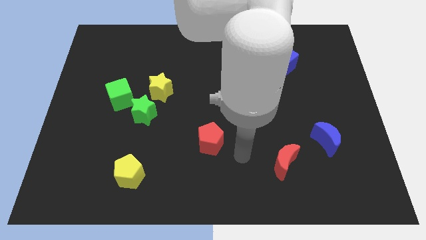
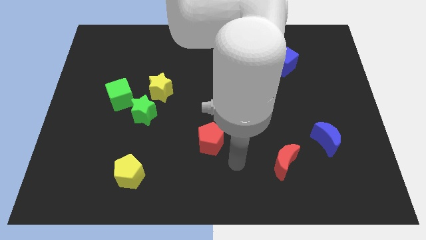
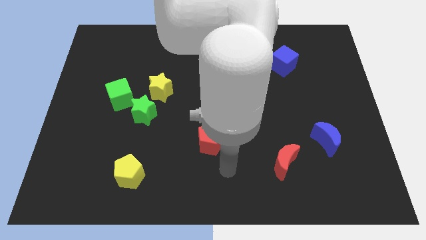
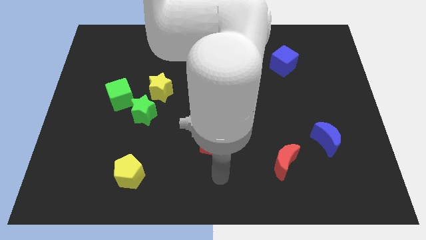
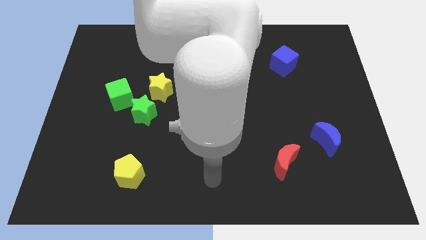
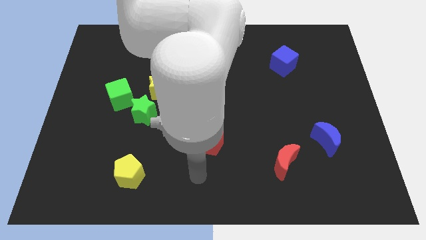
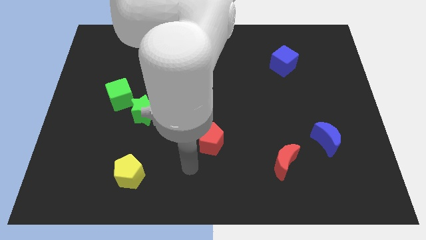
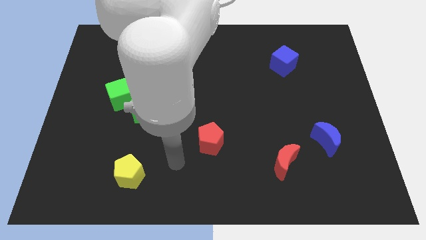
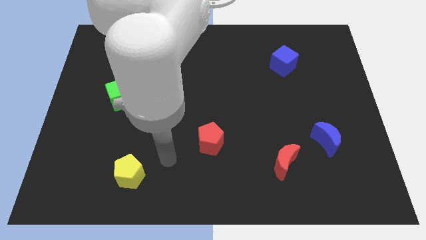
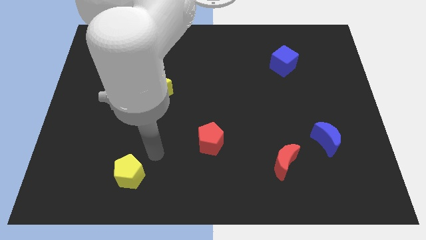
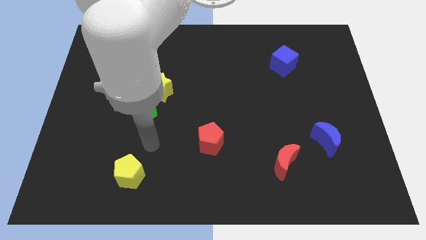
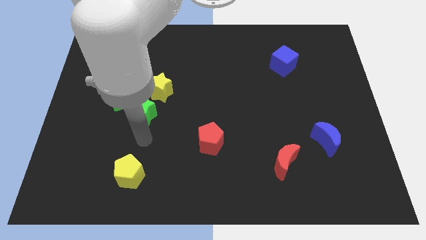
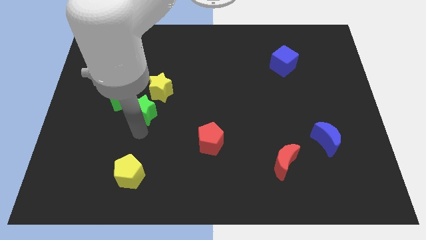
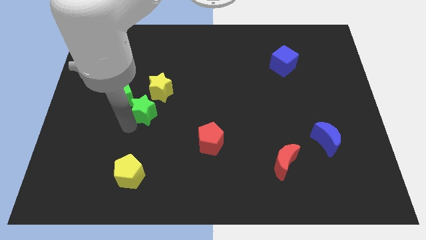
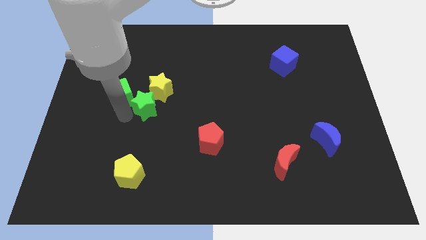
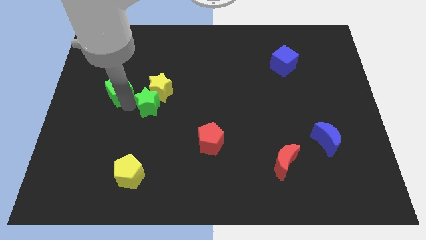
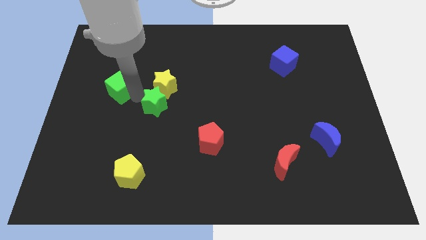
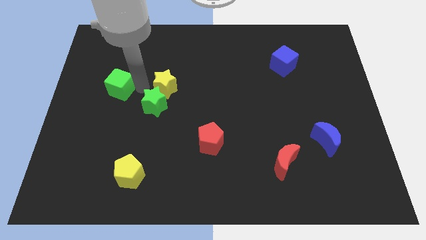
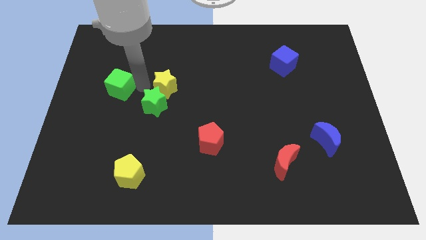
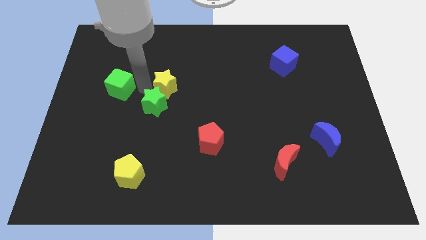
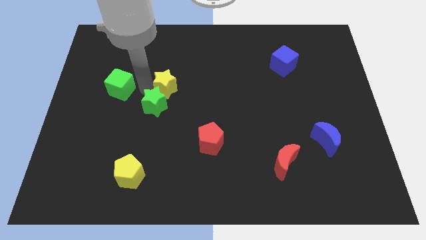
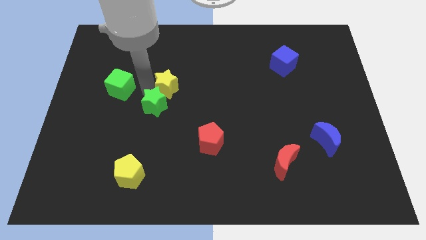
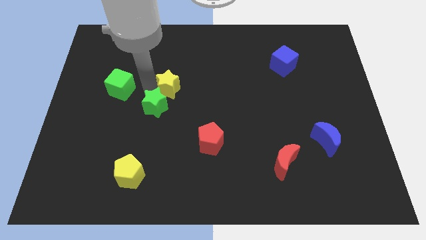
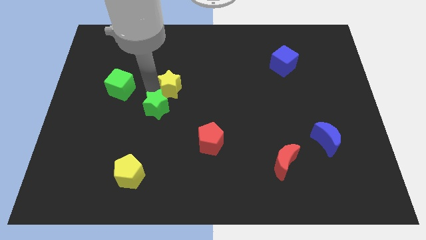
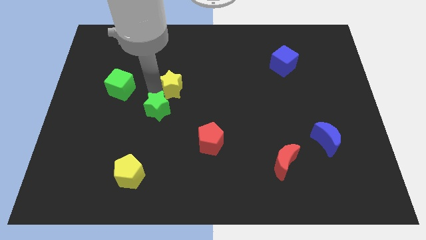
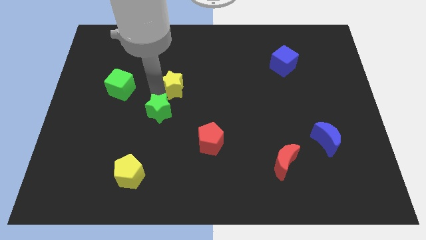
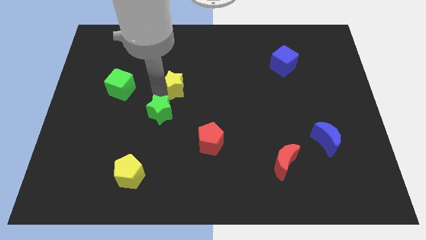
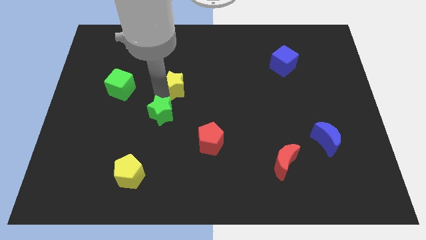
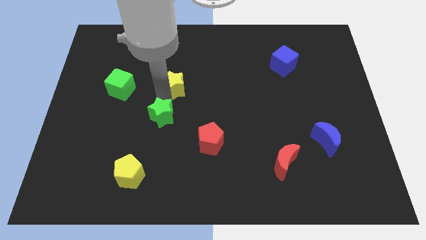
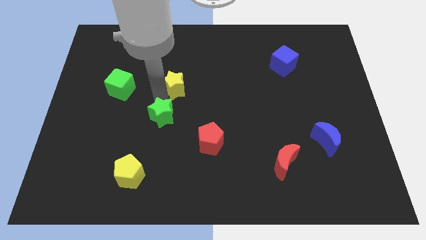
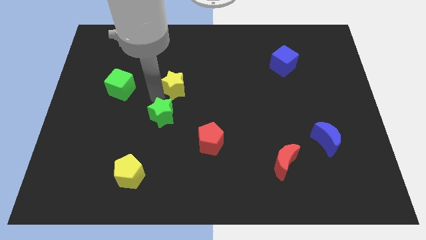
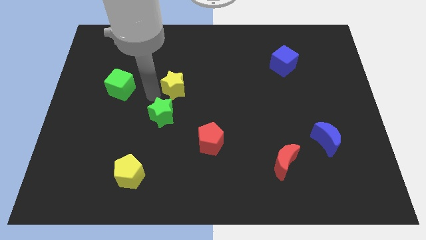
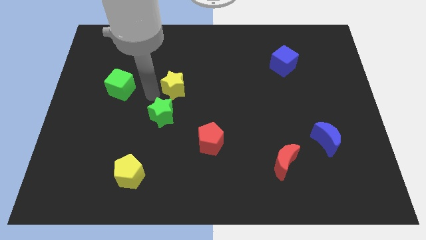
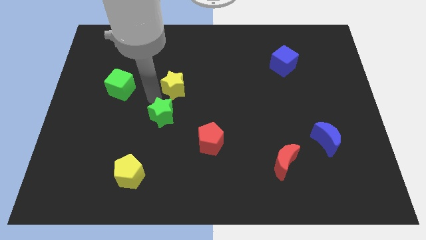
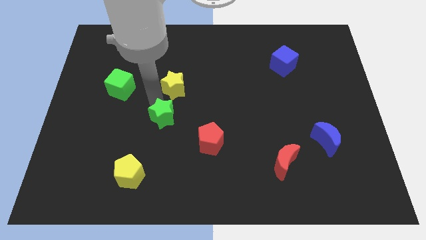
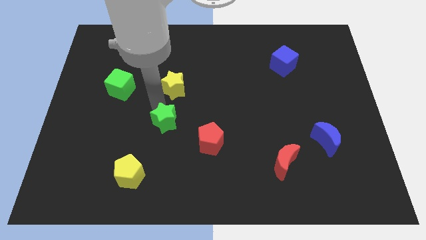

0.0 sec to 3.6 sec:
pull the green star apart from the yellow star and green cube

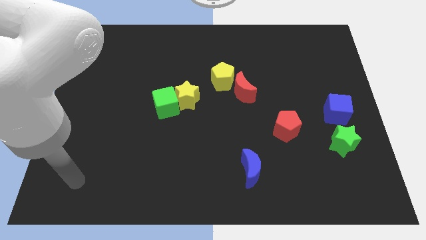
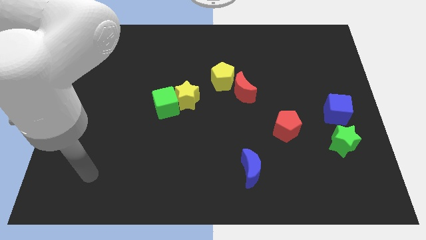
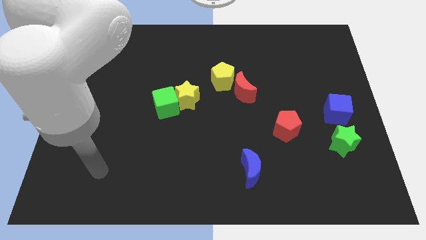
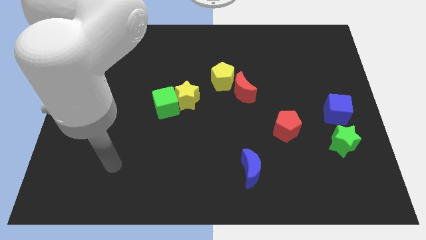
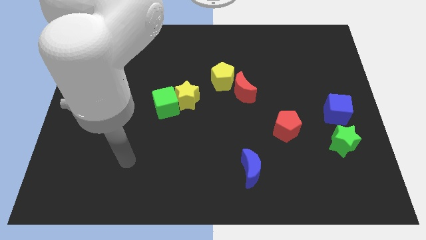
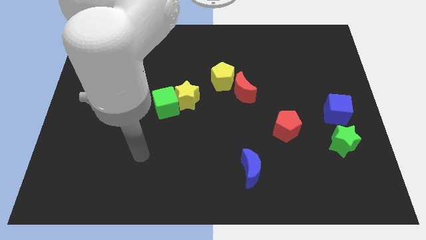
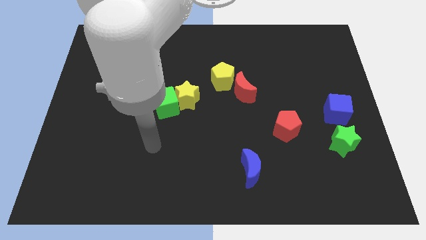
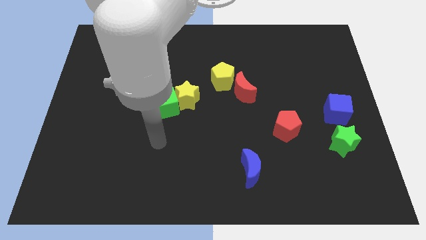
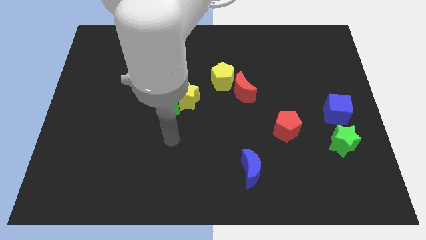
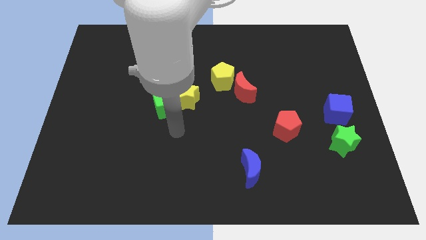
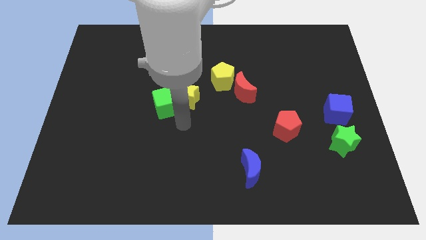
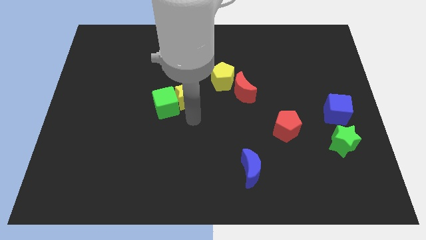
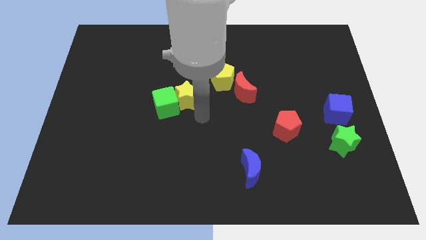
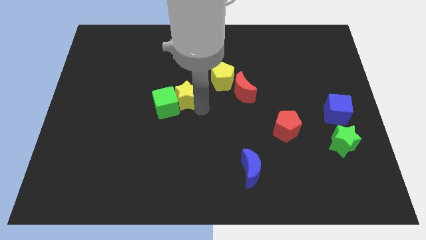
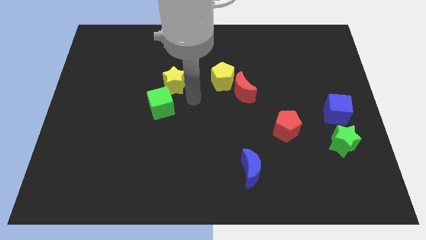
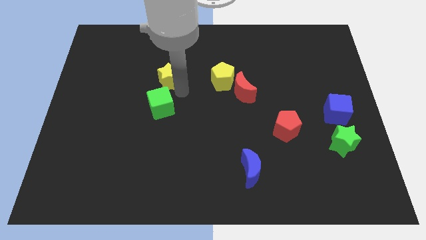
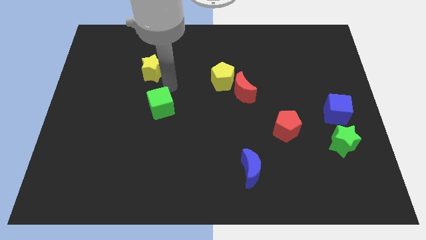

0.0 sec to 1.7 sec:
separate the green cube from the yellow star

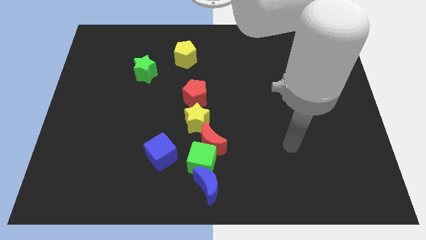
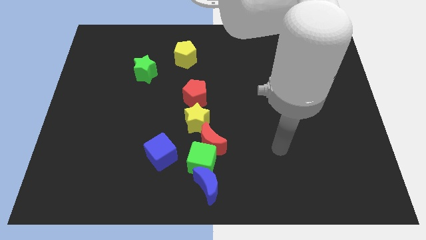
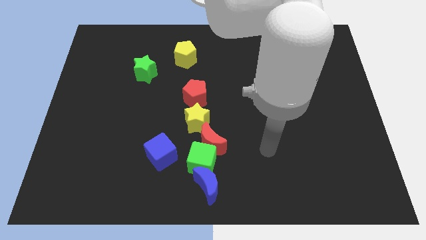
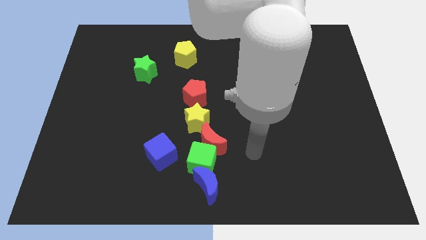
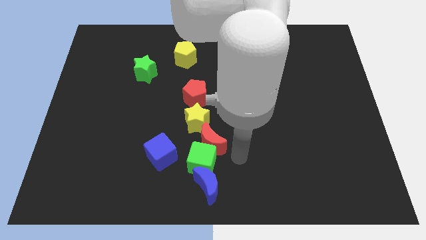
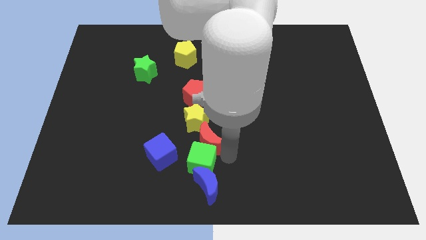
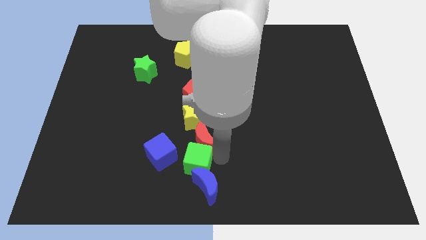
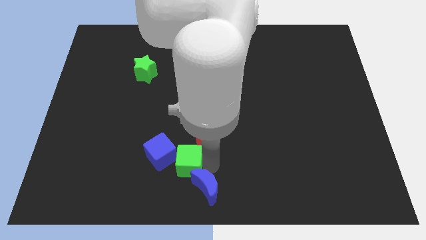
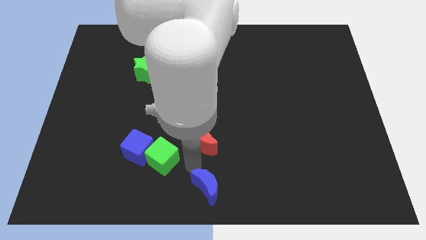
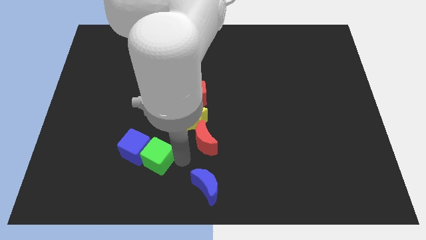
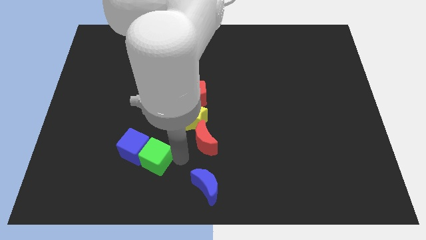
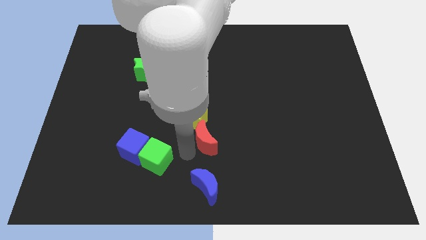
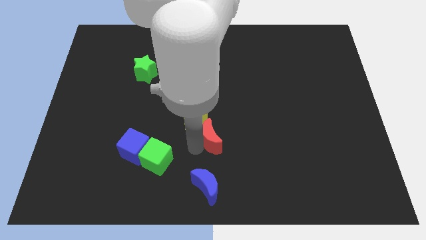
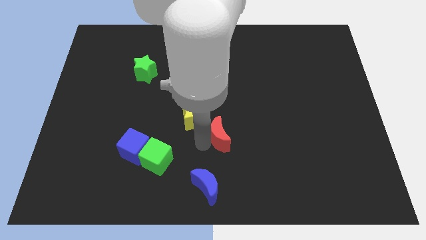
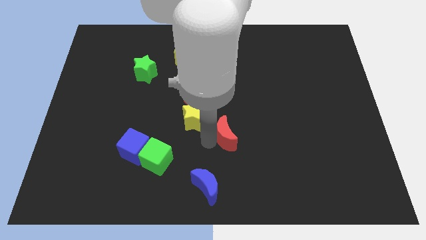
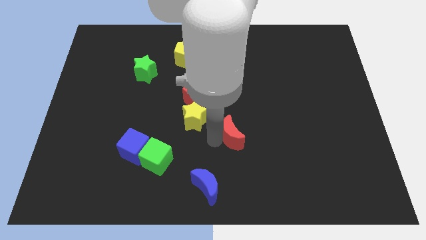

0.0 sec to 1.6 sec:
move the red moon away from the group

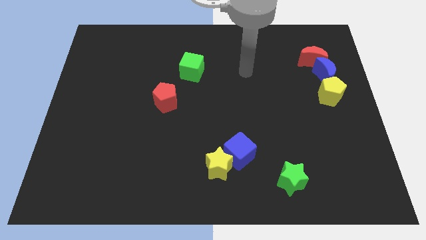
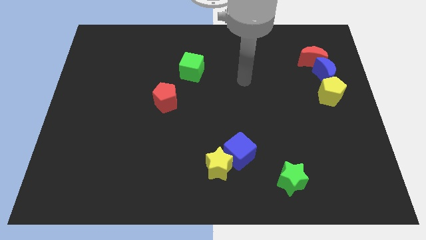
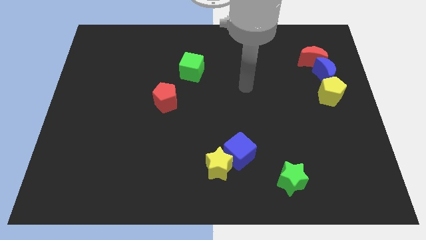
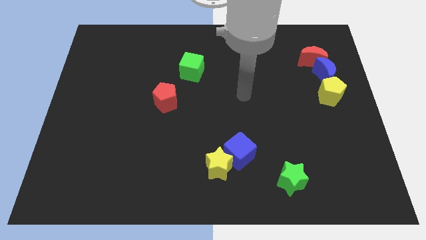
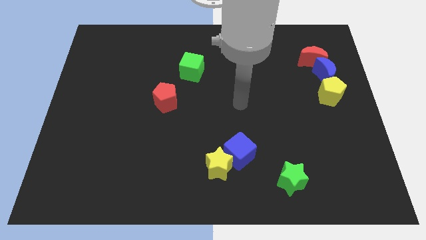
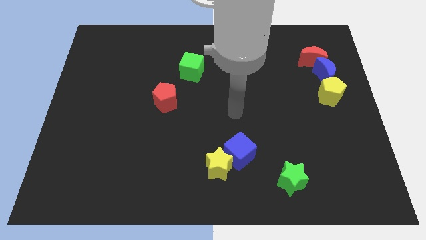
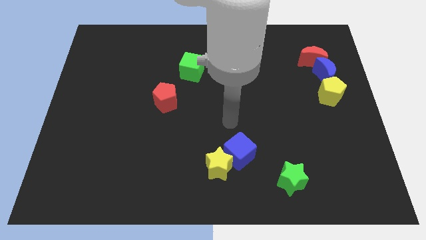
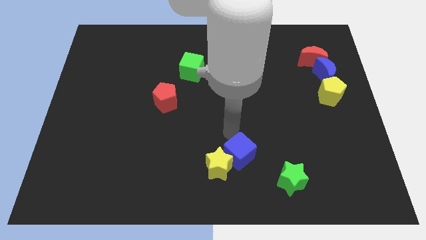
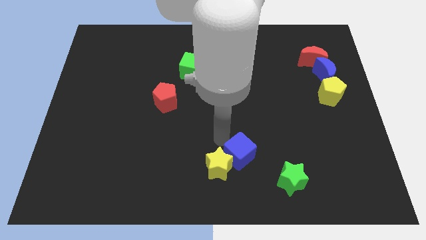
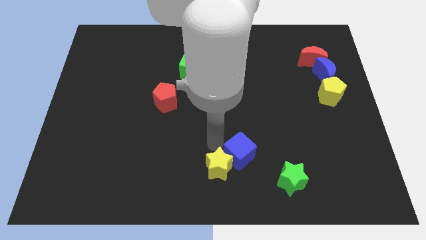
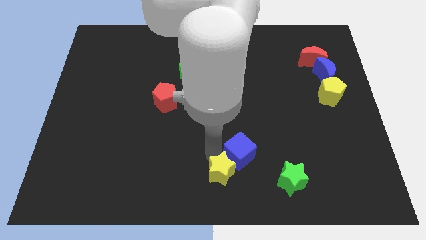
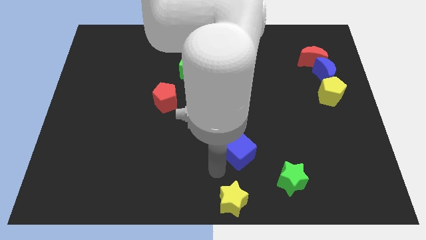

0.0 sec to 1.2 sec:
pull the blue cube apart from the yellow star

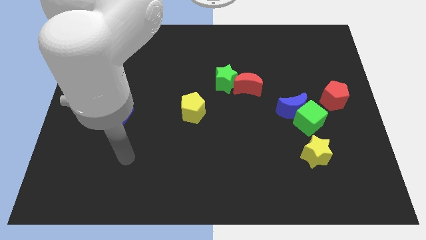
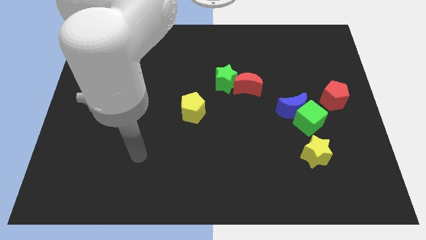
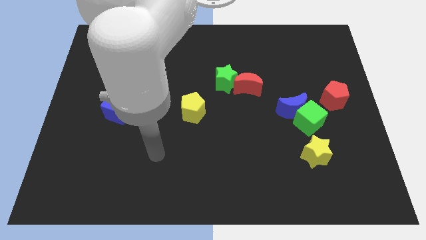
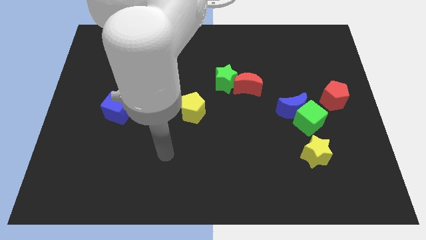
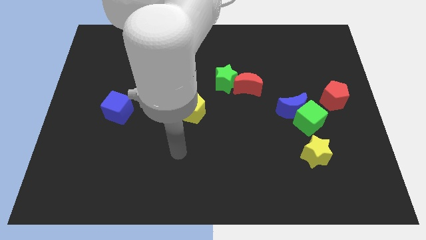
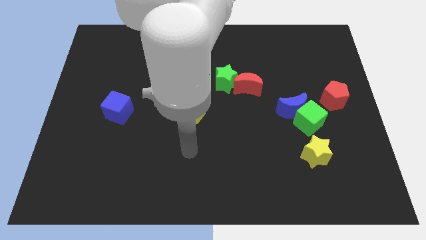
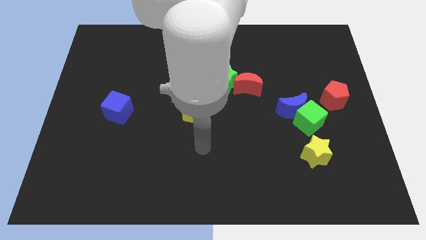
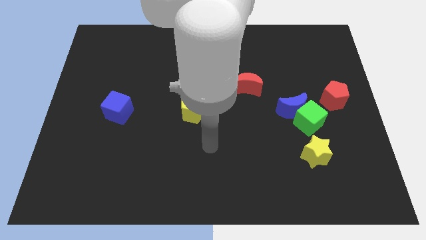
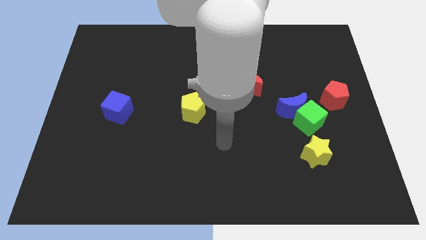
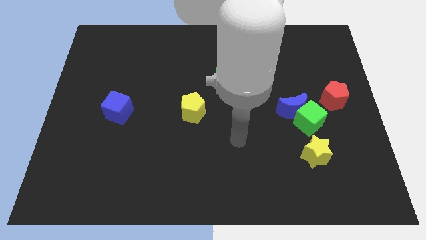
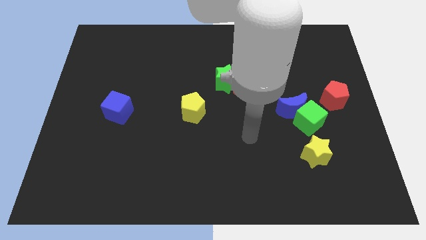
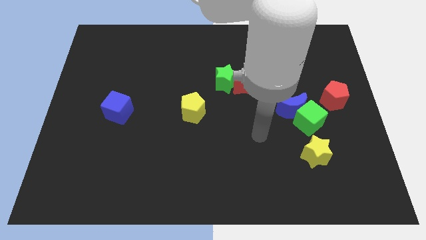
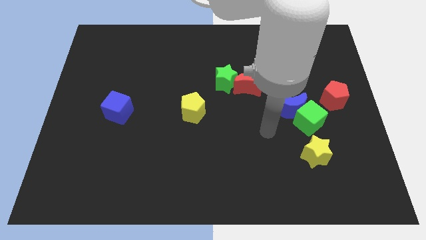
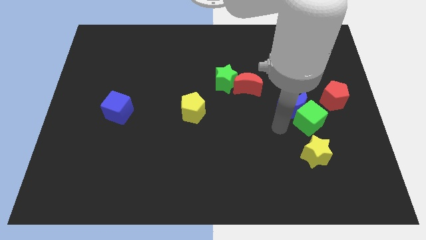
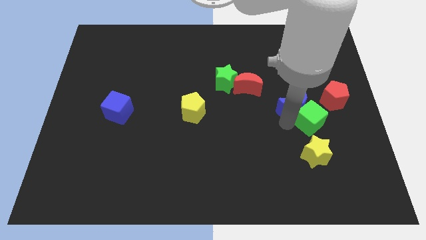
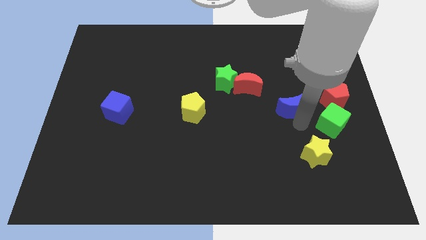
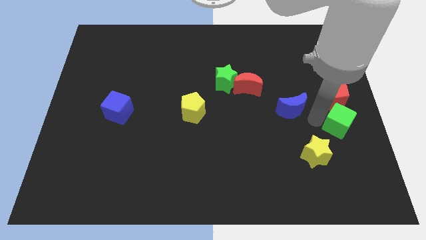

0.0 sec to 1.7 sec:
separate the blue moon from the green cube
